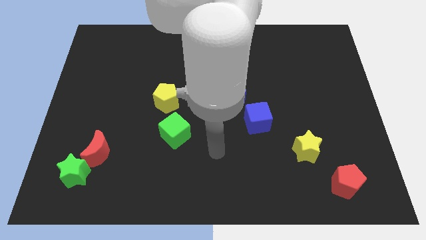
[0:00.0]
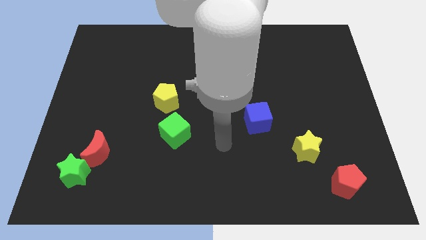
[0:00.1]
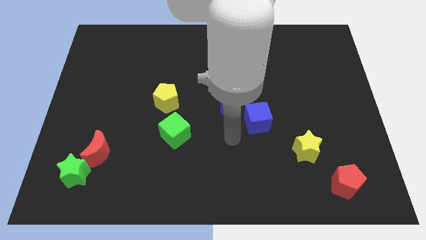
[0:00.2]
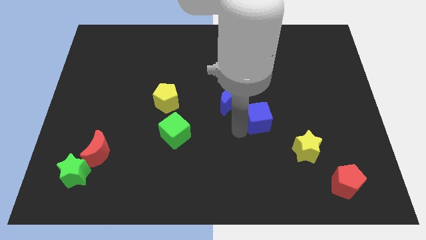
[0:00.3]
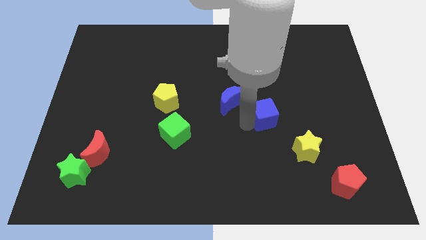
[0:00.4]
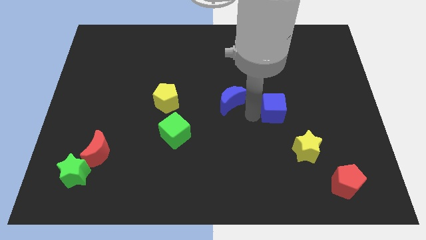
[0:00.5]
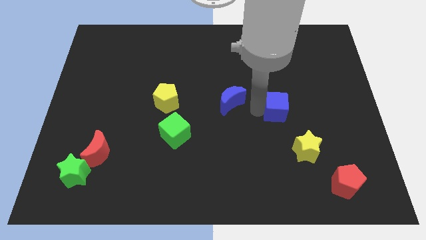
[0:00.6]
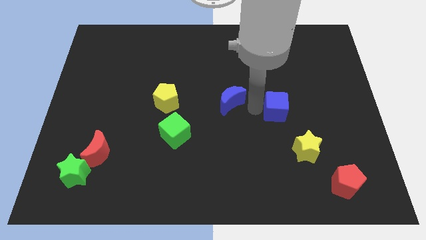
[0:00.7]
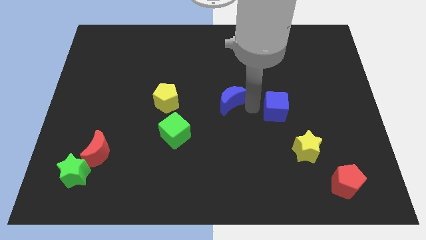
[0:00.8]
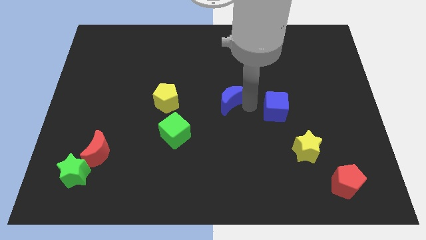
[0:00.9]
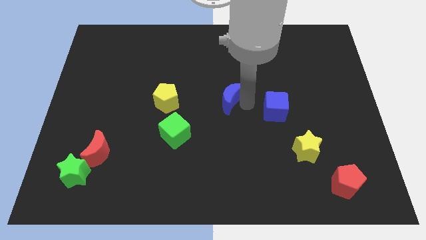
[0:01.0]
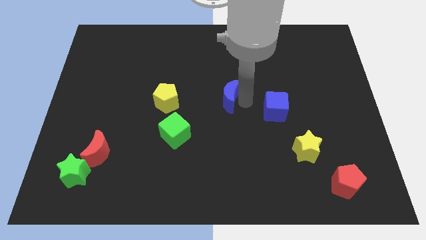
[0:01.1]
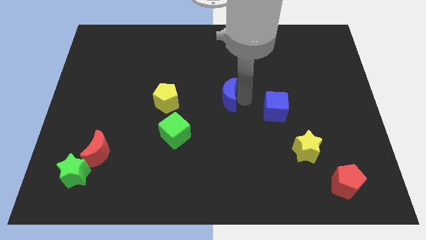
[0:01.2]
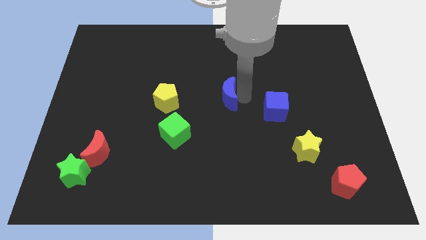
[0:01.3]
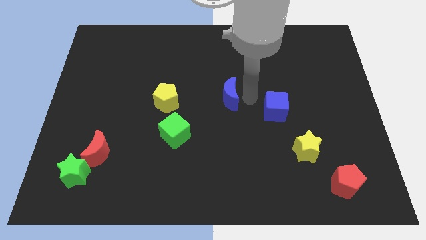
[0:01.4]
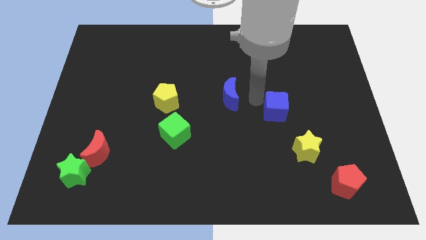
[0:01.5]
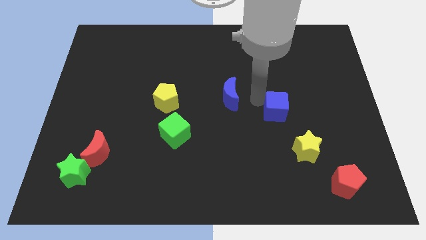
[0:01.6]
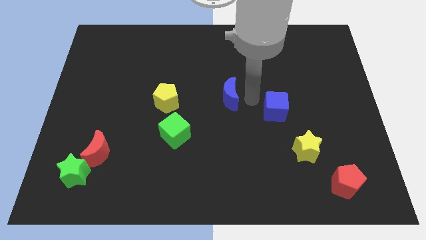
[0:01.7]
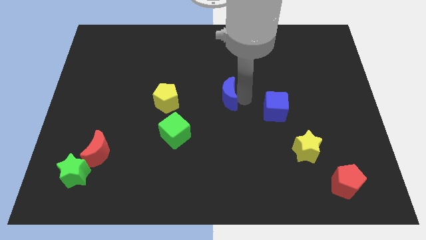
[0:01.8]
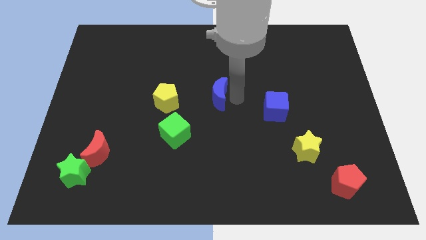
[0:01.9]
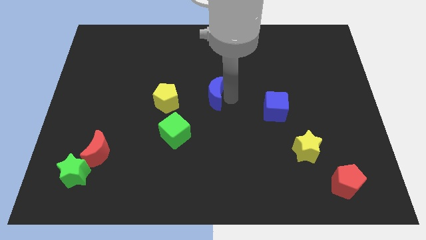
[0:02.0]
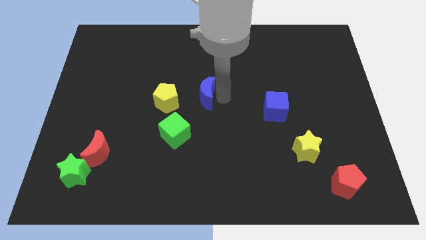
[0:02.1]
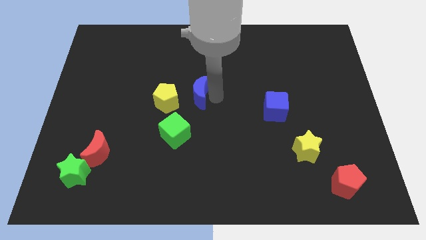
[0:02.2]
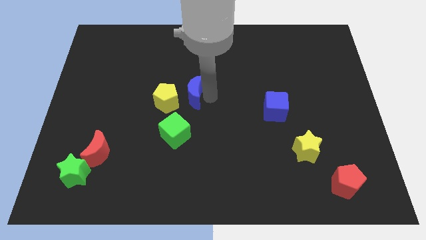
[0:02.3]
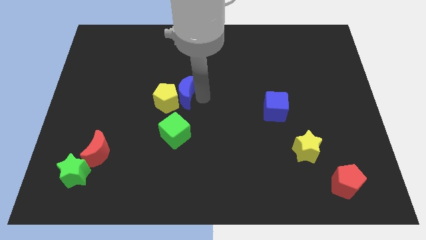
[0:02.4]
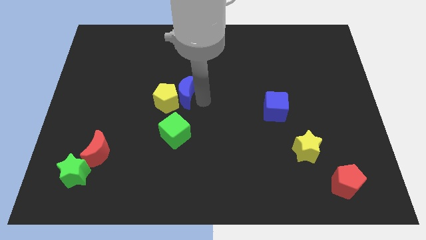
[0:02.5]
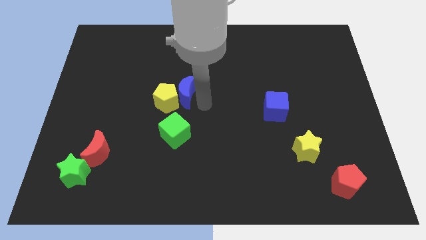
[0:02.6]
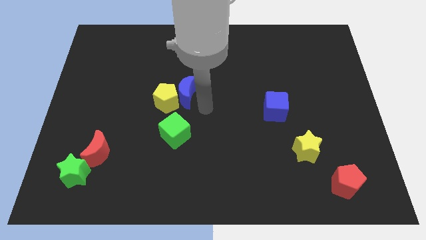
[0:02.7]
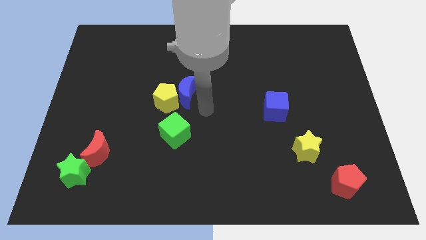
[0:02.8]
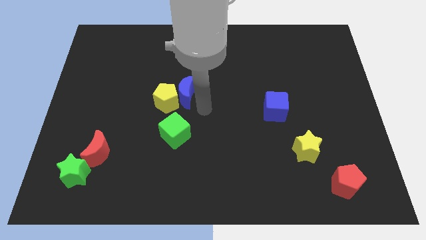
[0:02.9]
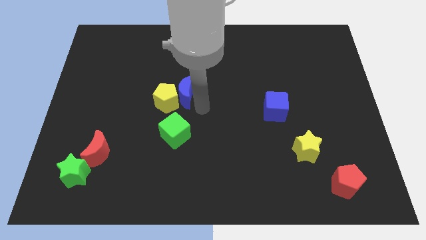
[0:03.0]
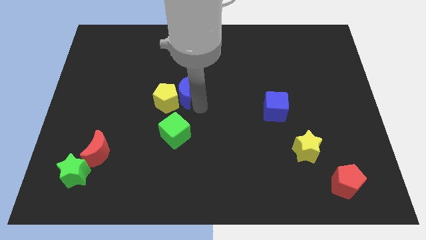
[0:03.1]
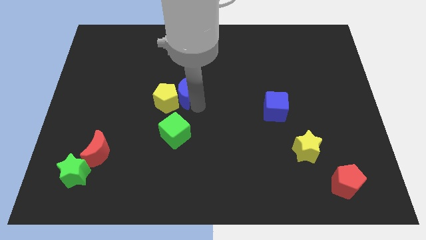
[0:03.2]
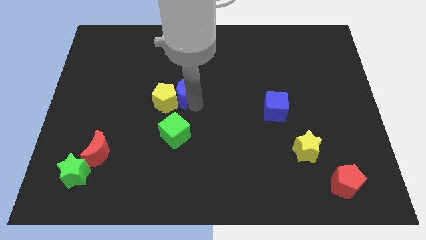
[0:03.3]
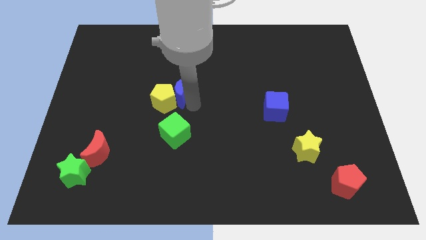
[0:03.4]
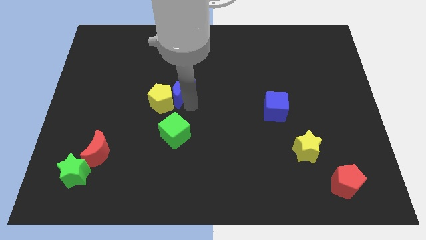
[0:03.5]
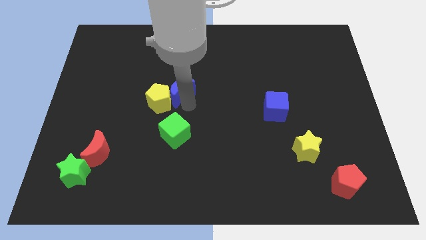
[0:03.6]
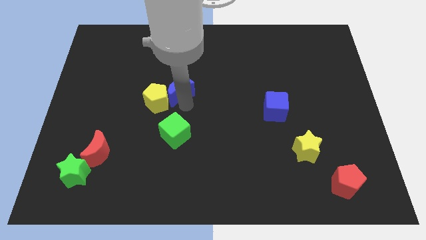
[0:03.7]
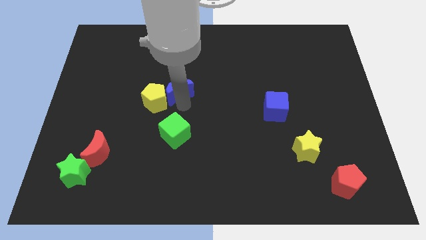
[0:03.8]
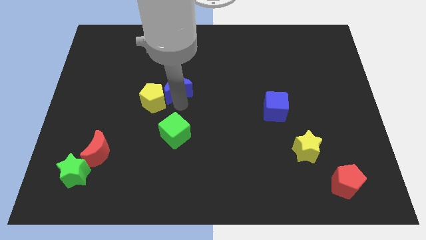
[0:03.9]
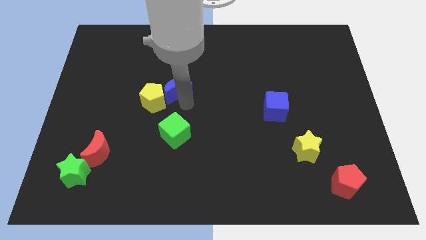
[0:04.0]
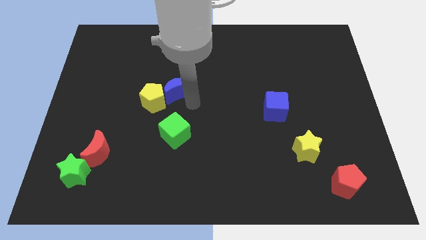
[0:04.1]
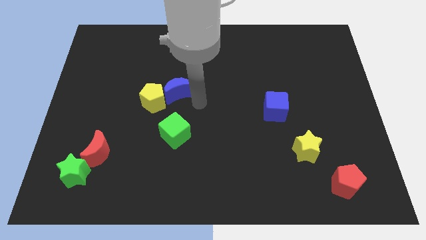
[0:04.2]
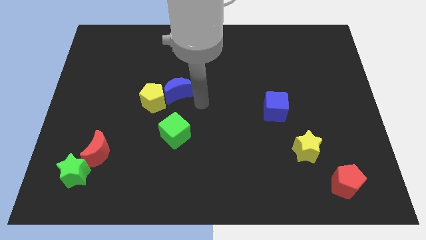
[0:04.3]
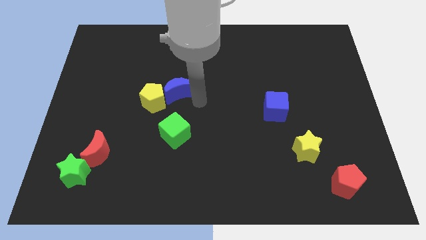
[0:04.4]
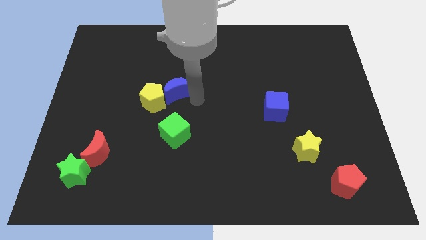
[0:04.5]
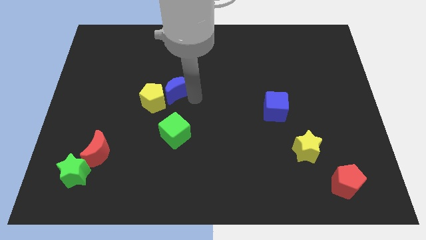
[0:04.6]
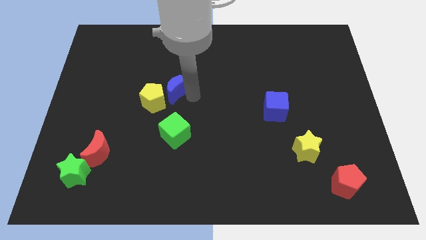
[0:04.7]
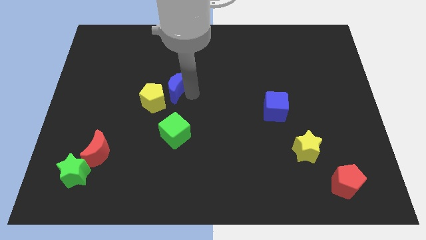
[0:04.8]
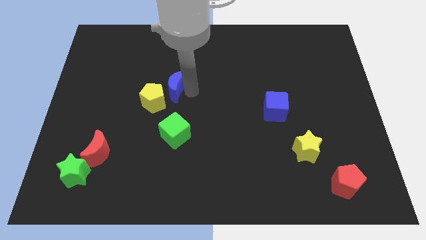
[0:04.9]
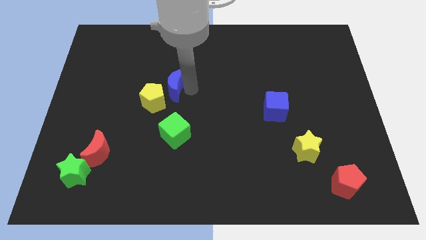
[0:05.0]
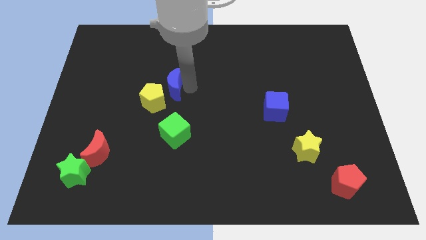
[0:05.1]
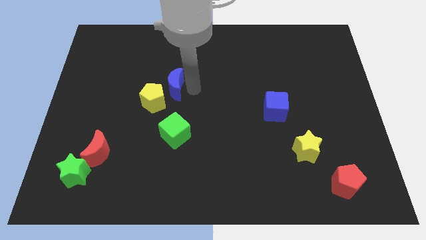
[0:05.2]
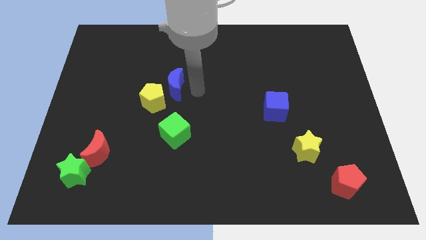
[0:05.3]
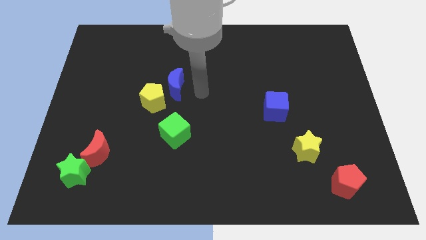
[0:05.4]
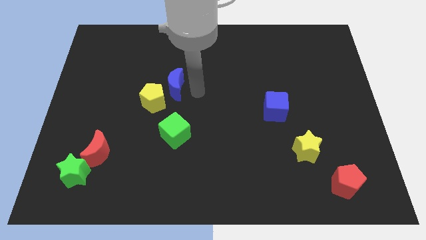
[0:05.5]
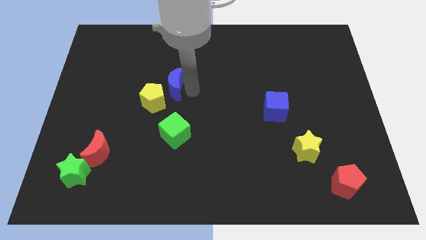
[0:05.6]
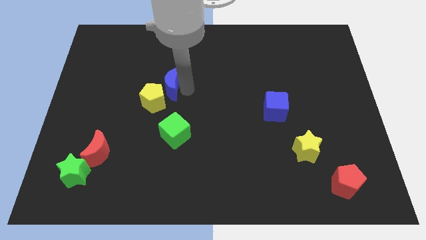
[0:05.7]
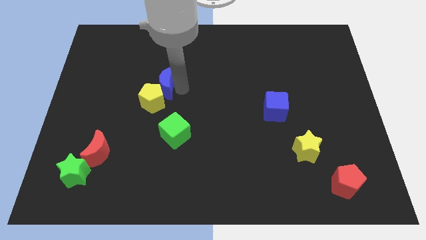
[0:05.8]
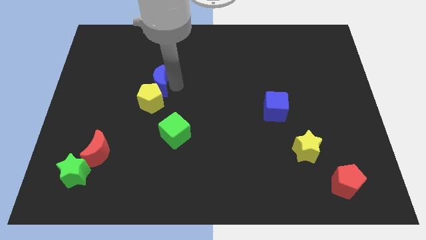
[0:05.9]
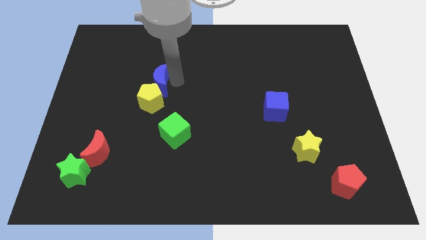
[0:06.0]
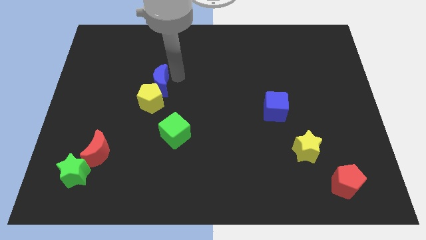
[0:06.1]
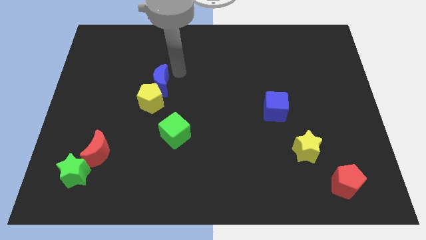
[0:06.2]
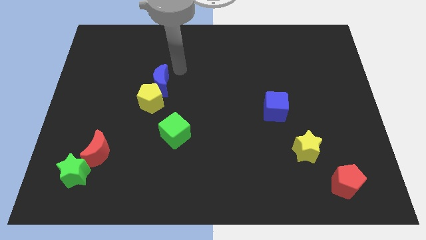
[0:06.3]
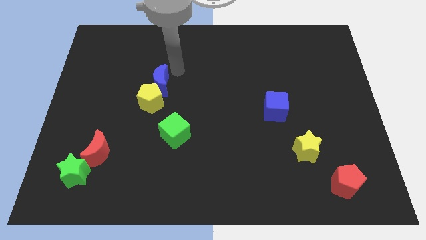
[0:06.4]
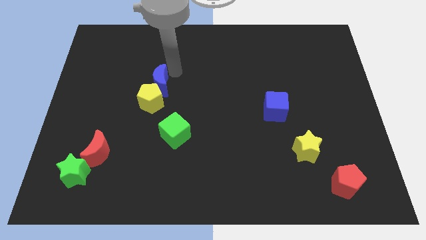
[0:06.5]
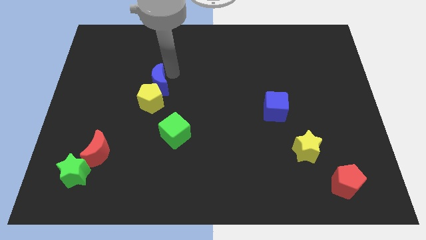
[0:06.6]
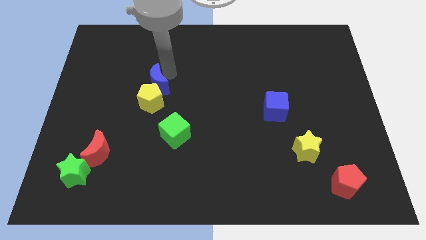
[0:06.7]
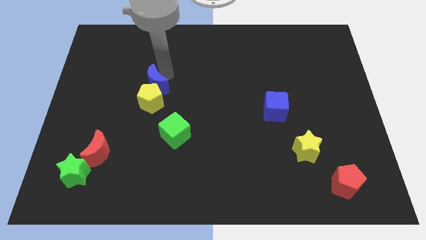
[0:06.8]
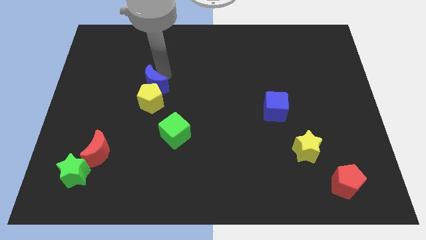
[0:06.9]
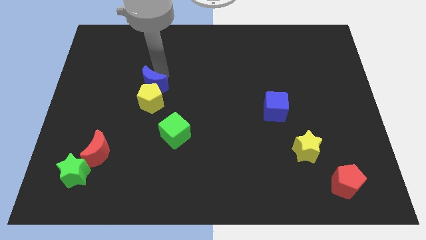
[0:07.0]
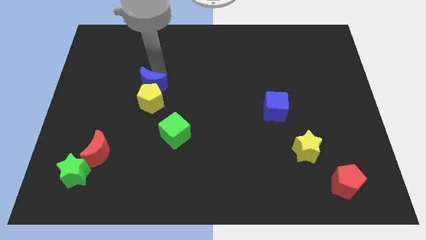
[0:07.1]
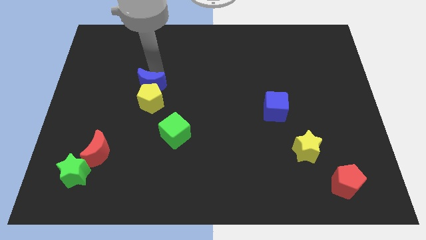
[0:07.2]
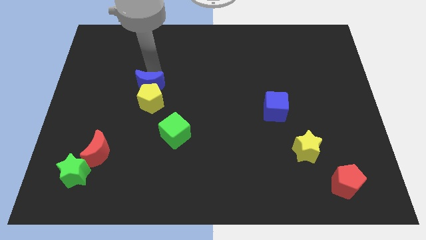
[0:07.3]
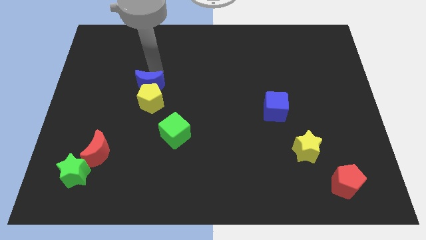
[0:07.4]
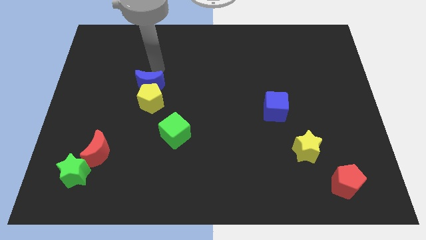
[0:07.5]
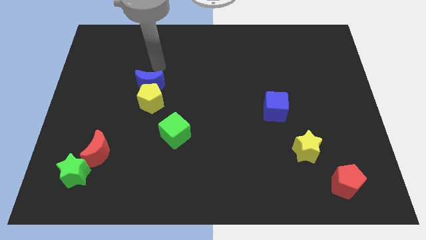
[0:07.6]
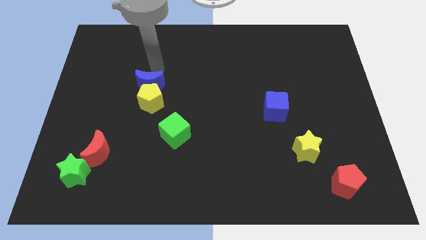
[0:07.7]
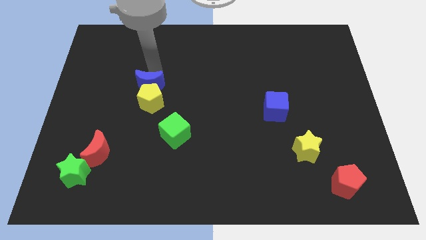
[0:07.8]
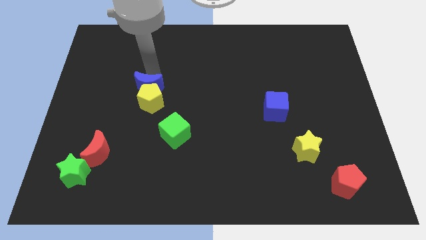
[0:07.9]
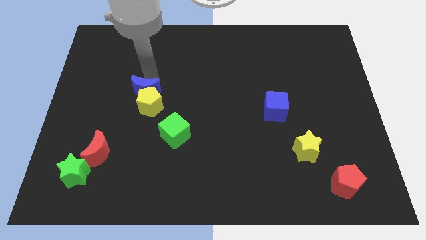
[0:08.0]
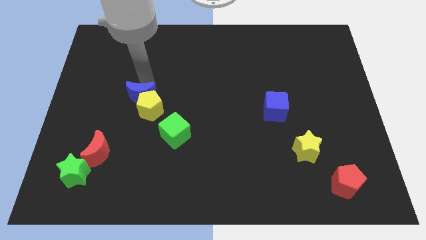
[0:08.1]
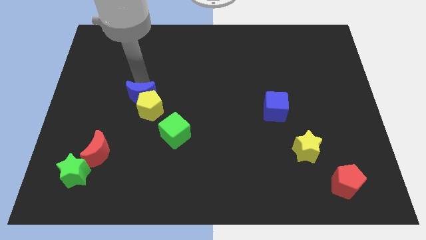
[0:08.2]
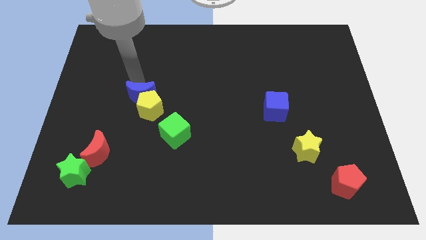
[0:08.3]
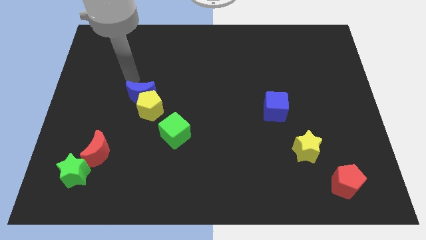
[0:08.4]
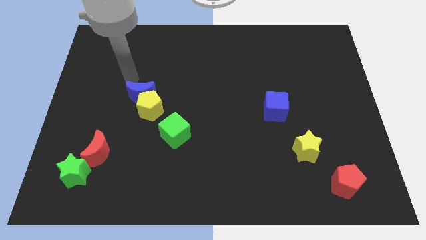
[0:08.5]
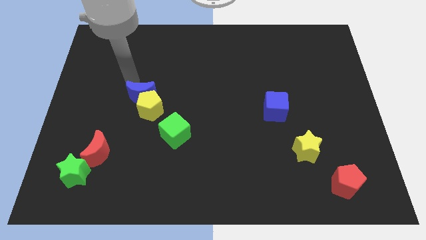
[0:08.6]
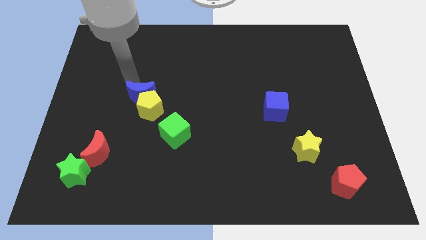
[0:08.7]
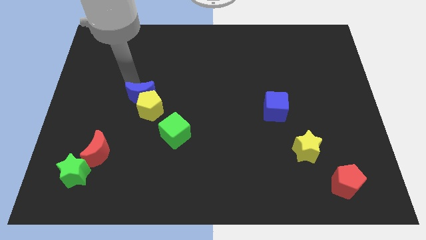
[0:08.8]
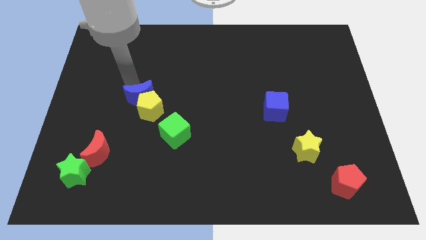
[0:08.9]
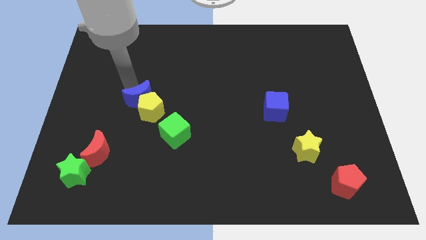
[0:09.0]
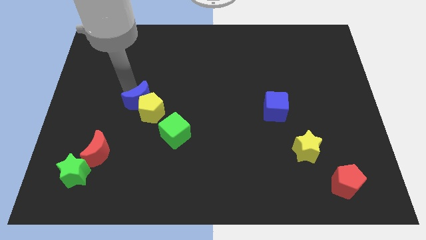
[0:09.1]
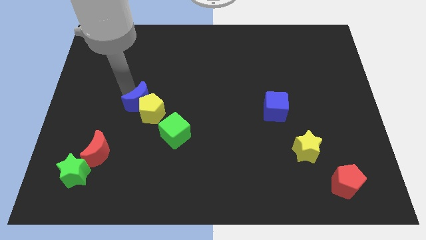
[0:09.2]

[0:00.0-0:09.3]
move the blue moon to the top left side of the green cube
